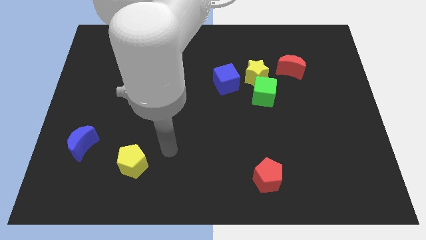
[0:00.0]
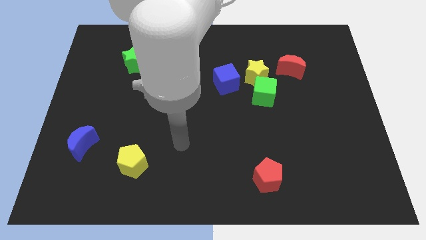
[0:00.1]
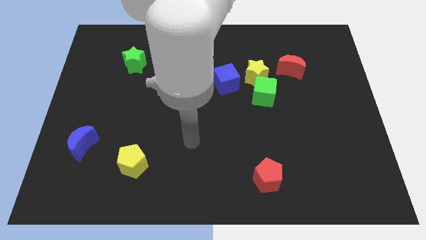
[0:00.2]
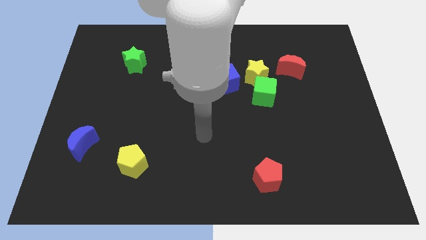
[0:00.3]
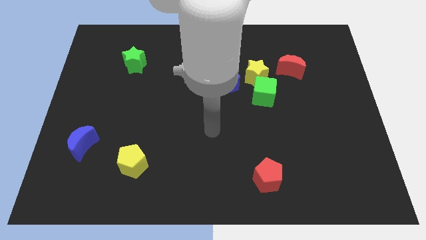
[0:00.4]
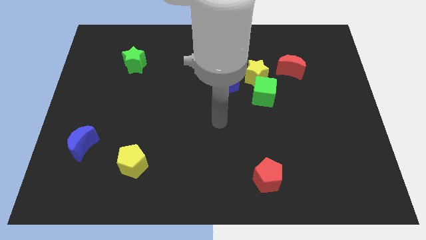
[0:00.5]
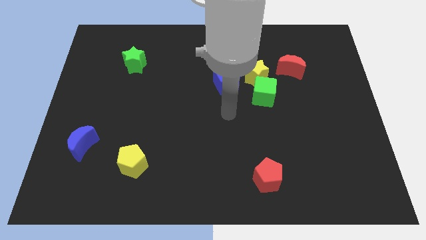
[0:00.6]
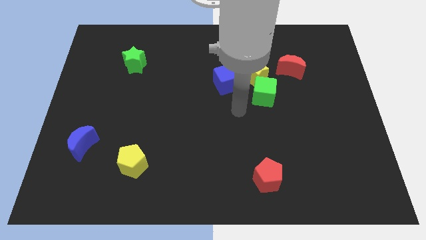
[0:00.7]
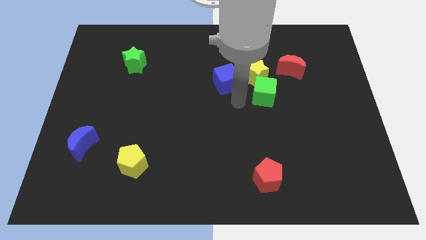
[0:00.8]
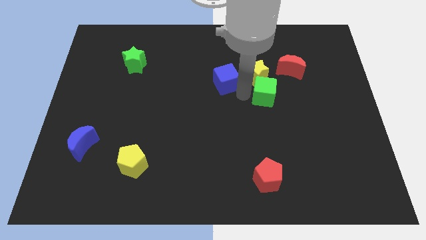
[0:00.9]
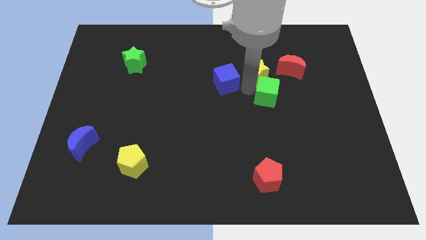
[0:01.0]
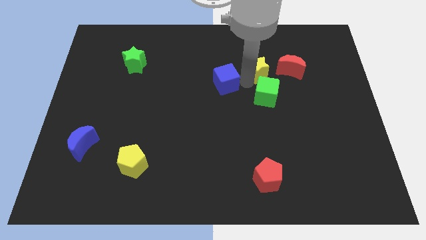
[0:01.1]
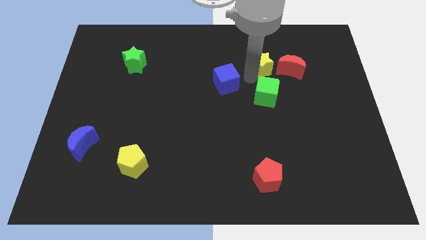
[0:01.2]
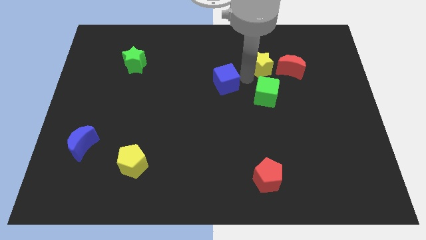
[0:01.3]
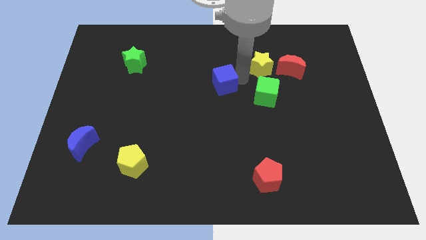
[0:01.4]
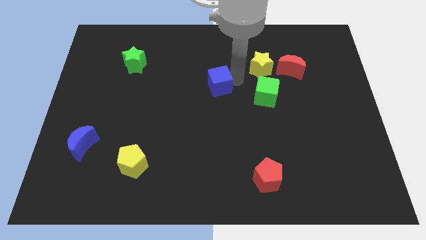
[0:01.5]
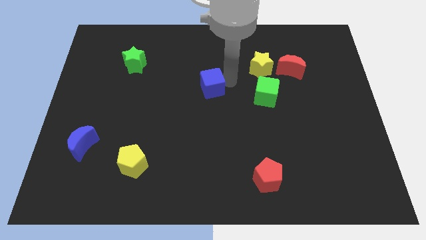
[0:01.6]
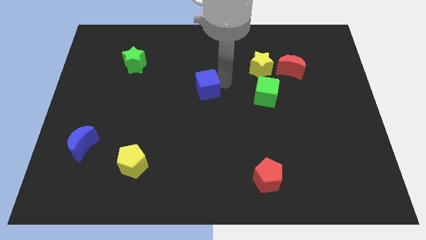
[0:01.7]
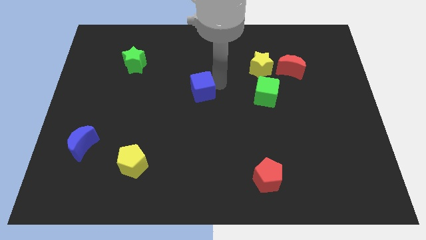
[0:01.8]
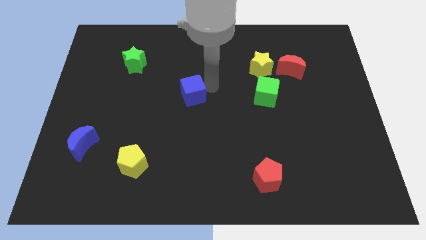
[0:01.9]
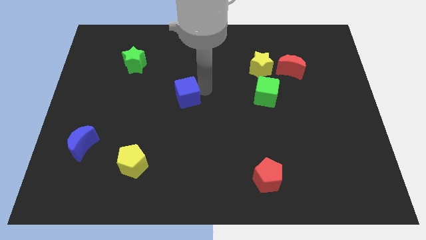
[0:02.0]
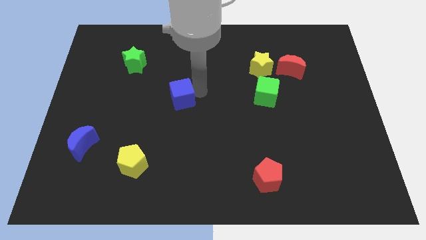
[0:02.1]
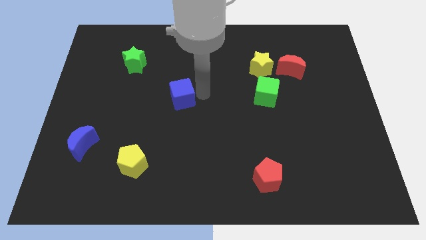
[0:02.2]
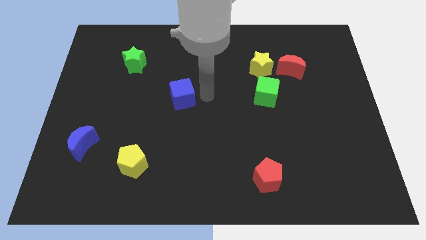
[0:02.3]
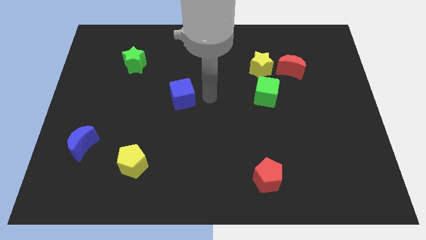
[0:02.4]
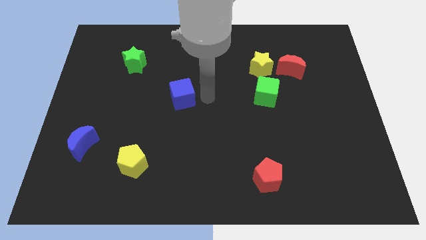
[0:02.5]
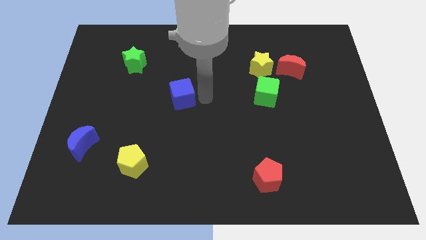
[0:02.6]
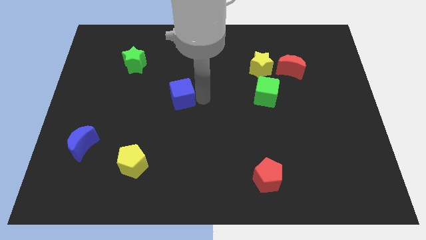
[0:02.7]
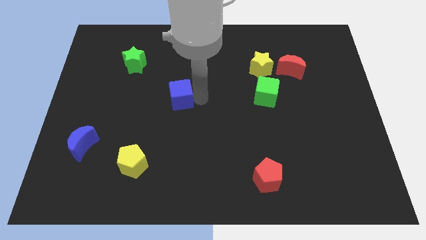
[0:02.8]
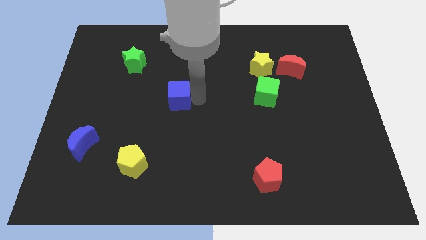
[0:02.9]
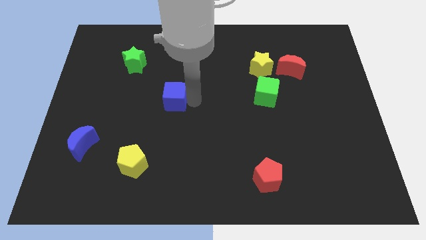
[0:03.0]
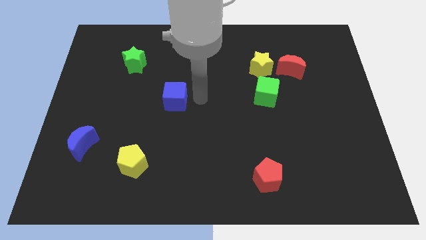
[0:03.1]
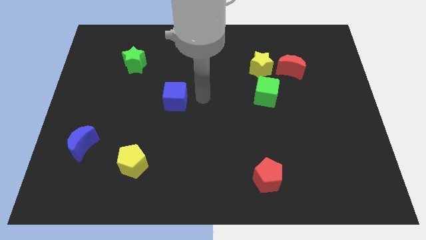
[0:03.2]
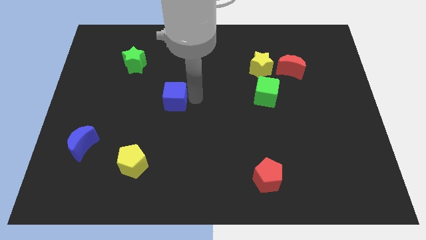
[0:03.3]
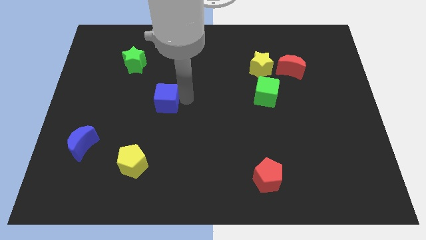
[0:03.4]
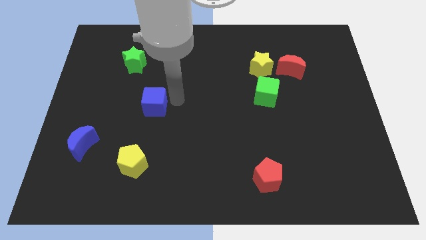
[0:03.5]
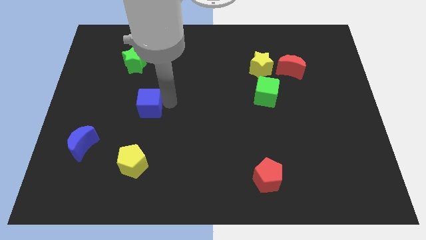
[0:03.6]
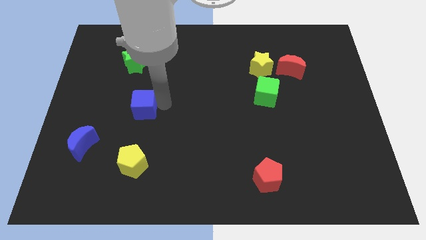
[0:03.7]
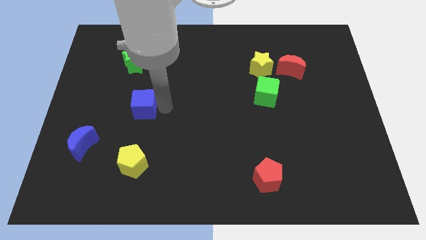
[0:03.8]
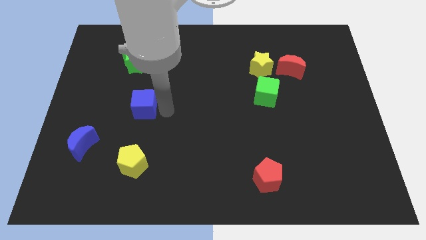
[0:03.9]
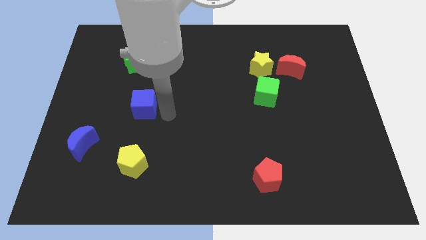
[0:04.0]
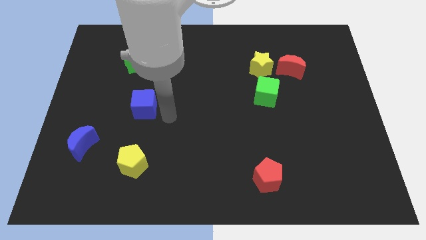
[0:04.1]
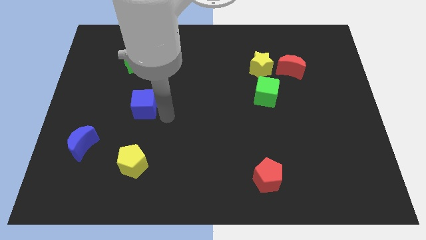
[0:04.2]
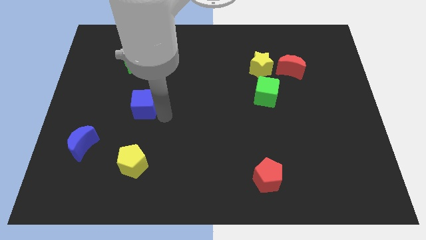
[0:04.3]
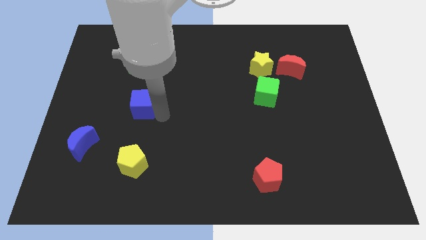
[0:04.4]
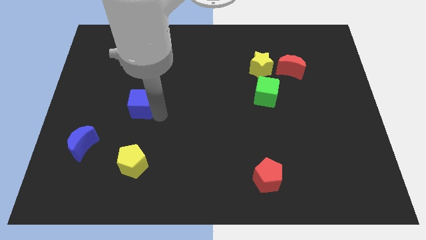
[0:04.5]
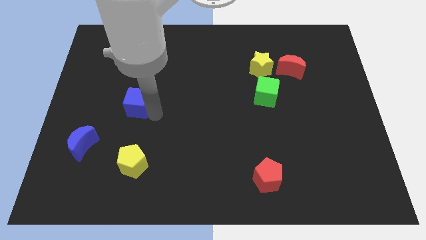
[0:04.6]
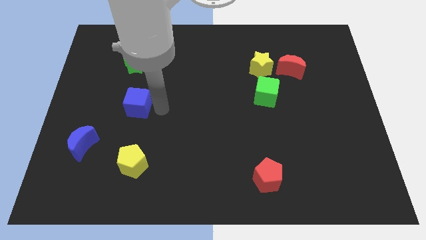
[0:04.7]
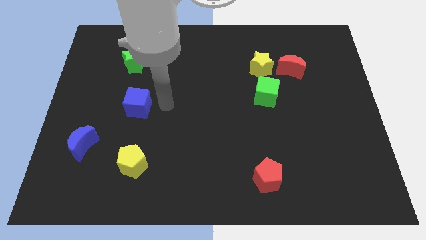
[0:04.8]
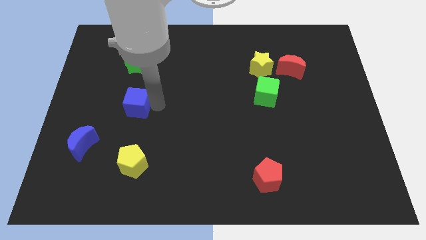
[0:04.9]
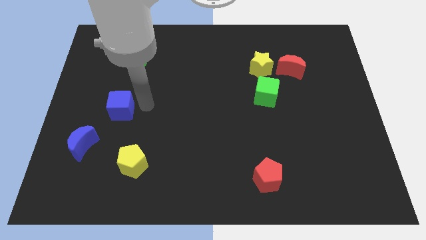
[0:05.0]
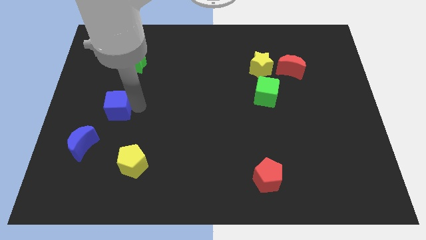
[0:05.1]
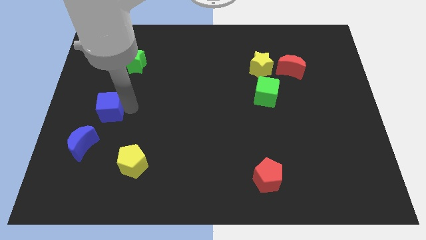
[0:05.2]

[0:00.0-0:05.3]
push the blue cube to the top of the blue moon

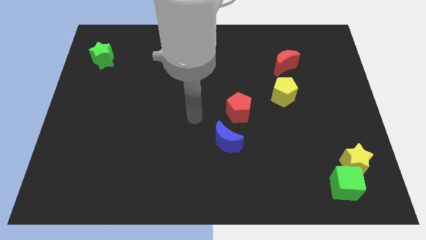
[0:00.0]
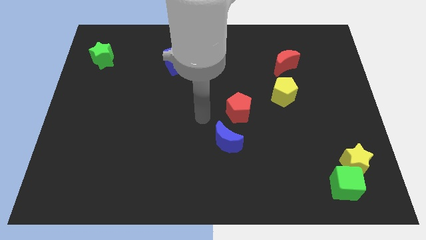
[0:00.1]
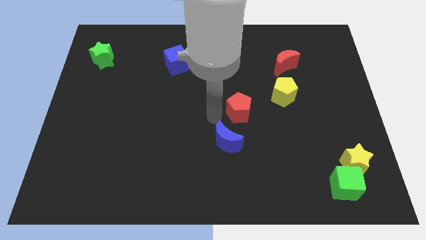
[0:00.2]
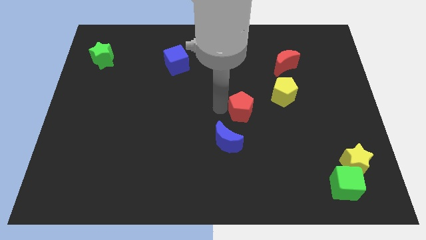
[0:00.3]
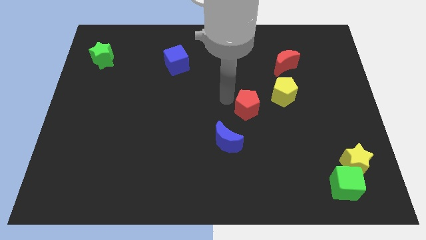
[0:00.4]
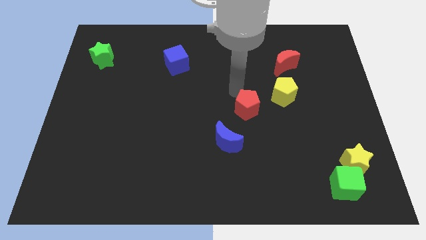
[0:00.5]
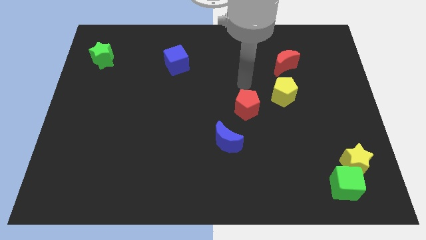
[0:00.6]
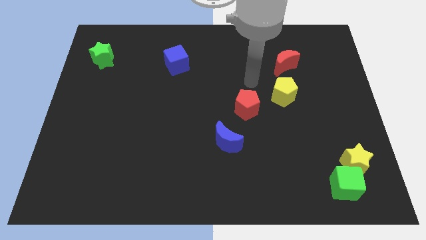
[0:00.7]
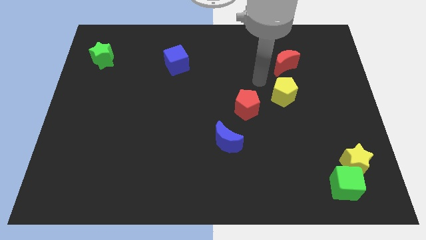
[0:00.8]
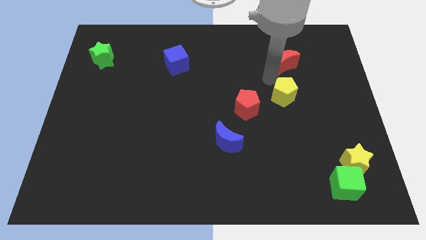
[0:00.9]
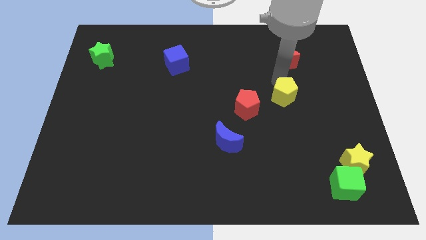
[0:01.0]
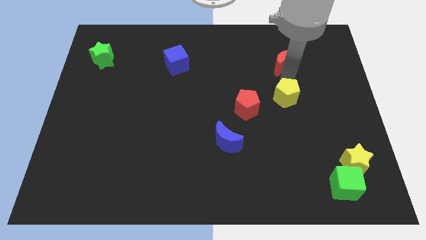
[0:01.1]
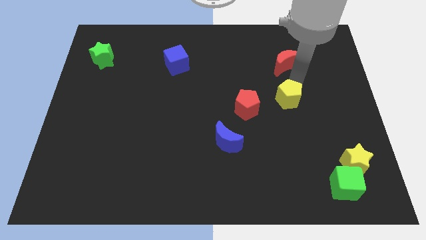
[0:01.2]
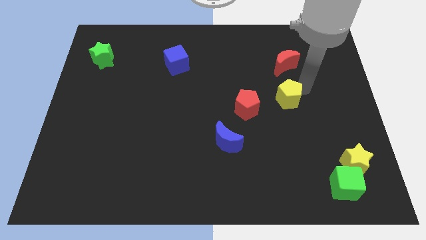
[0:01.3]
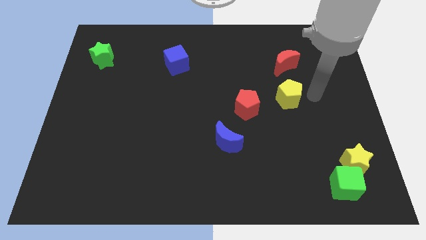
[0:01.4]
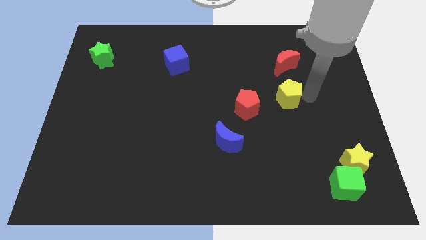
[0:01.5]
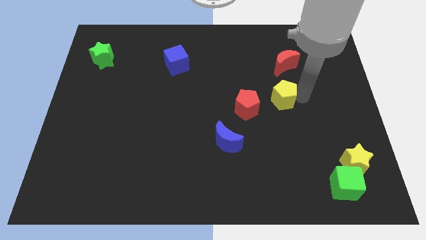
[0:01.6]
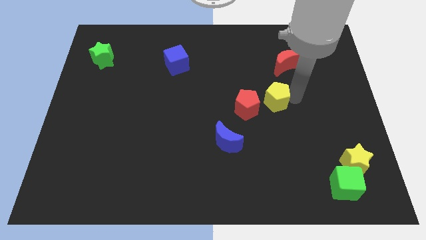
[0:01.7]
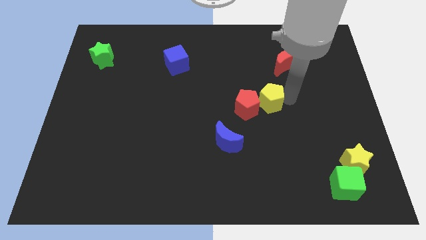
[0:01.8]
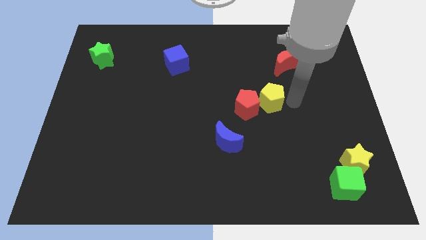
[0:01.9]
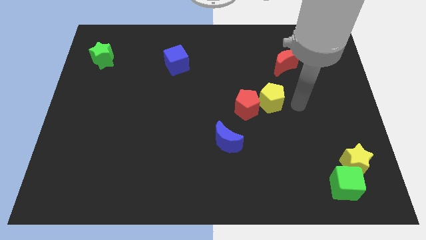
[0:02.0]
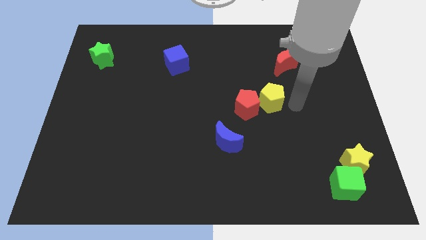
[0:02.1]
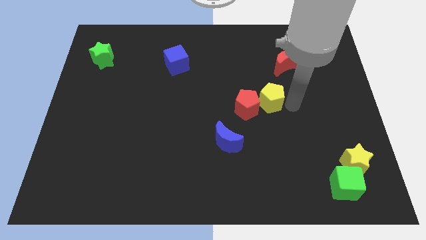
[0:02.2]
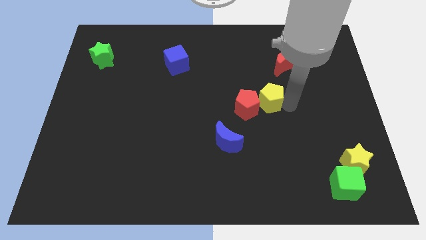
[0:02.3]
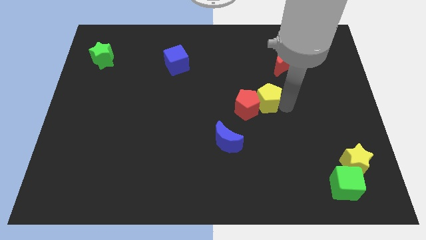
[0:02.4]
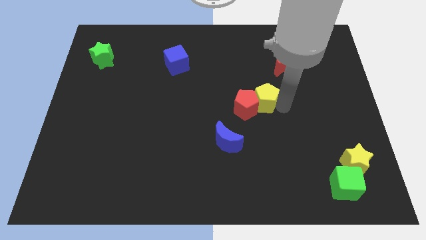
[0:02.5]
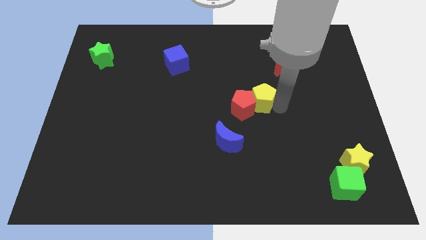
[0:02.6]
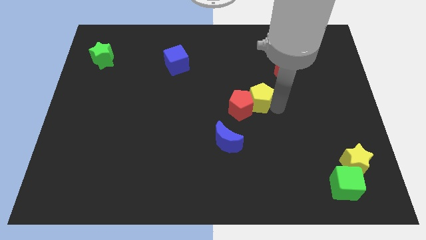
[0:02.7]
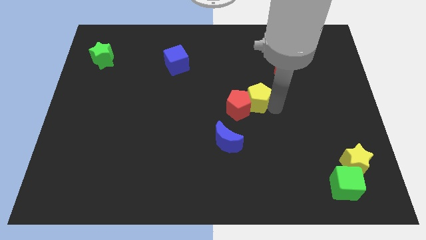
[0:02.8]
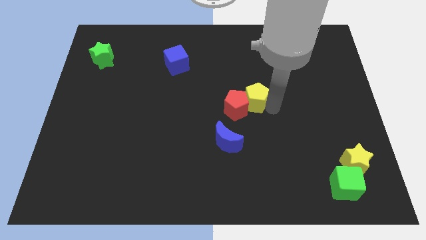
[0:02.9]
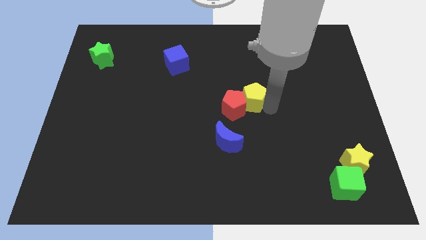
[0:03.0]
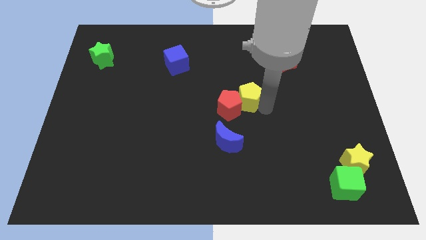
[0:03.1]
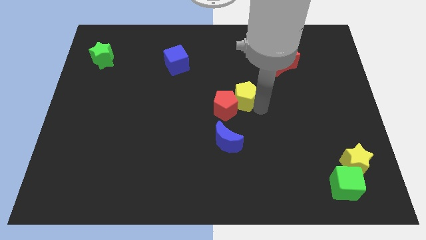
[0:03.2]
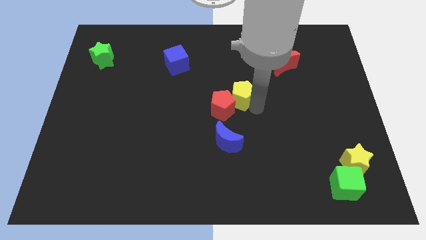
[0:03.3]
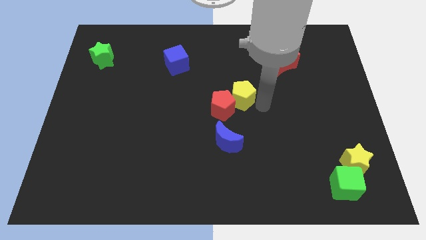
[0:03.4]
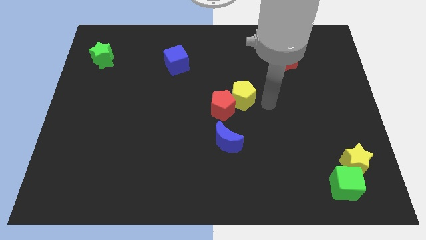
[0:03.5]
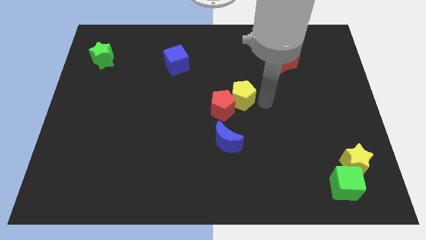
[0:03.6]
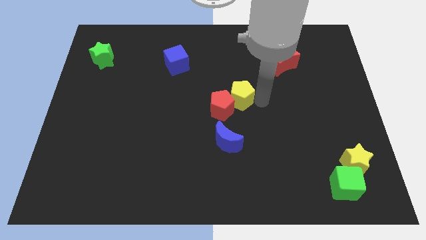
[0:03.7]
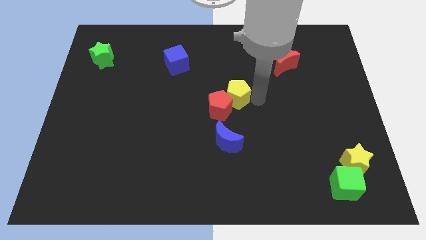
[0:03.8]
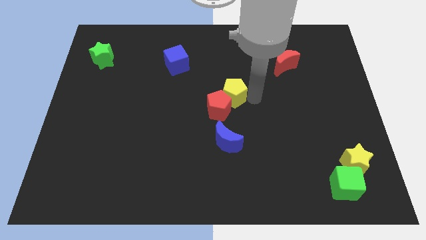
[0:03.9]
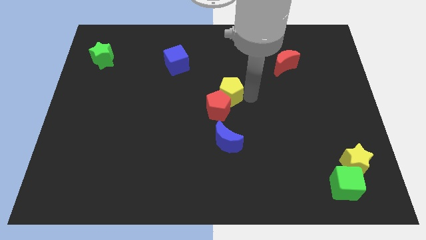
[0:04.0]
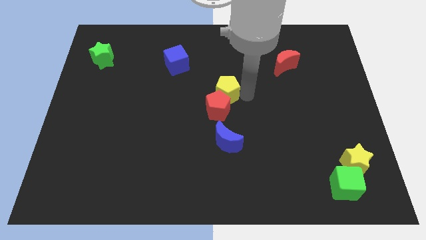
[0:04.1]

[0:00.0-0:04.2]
move the yellow pentagon diagonally up and to the left of the red pentagon
